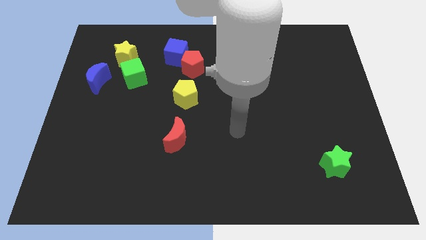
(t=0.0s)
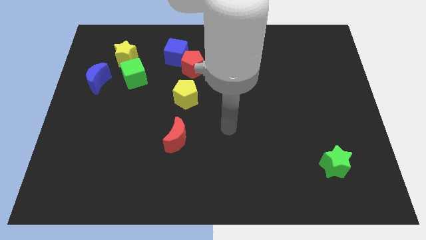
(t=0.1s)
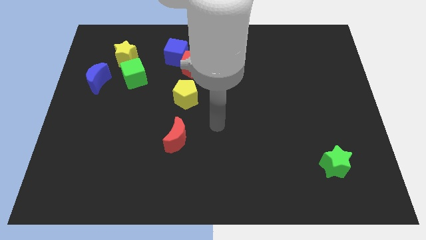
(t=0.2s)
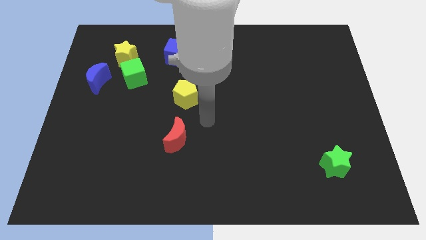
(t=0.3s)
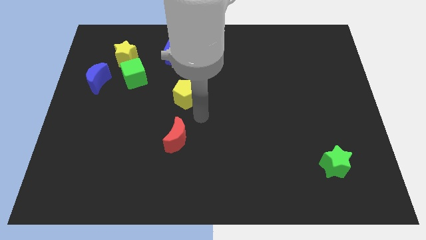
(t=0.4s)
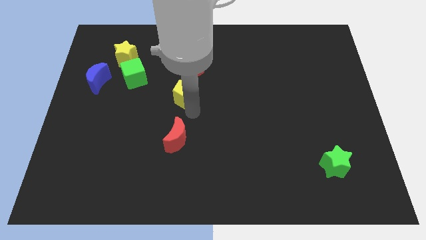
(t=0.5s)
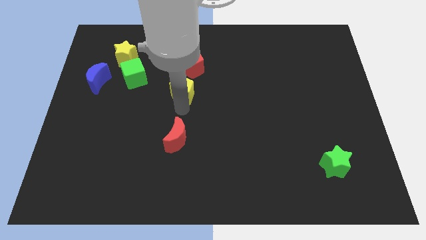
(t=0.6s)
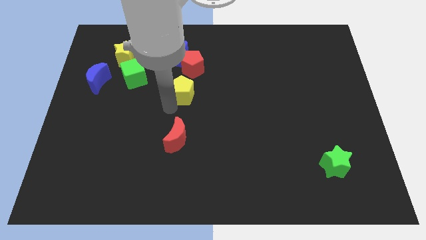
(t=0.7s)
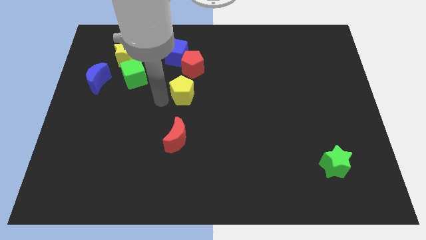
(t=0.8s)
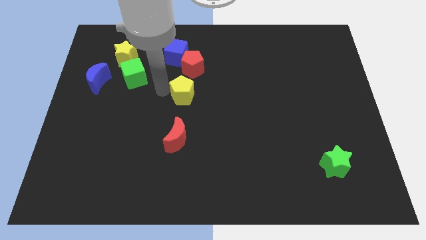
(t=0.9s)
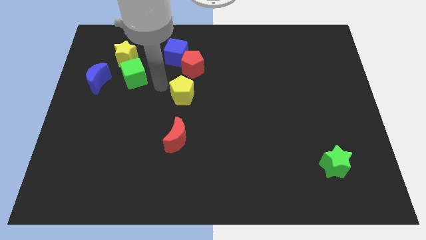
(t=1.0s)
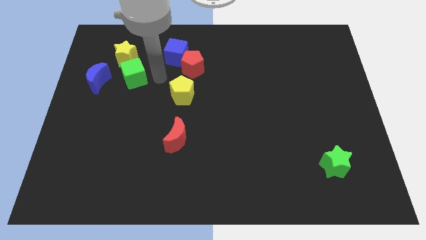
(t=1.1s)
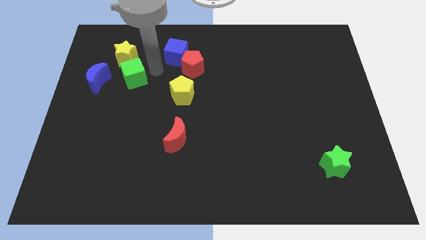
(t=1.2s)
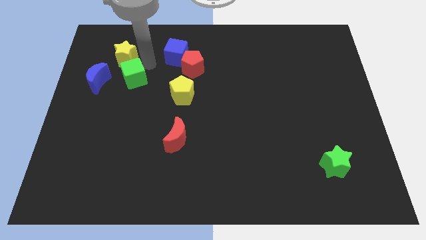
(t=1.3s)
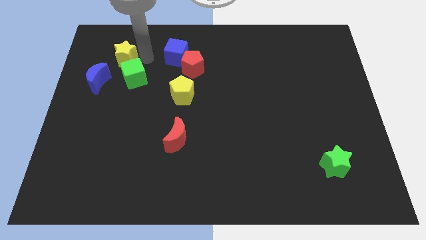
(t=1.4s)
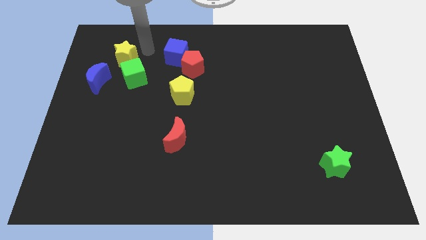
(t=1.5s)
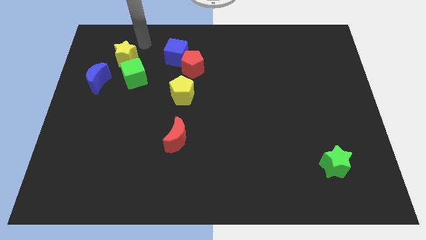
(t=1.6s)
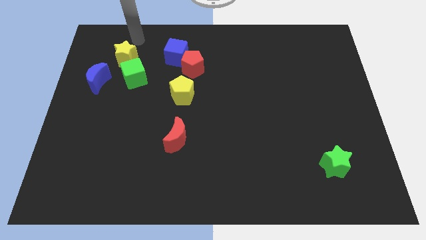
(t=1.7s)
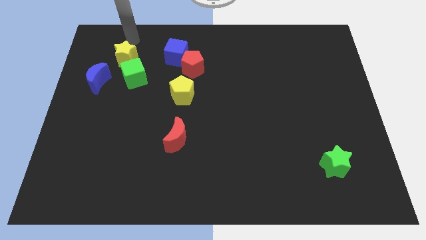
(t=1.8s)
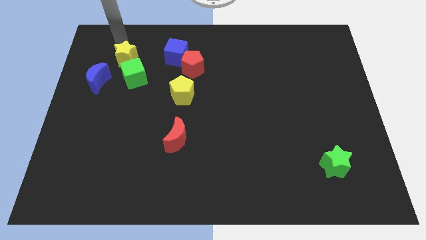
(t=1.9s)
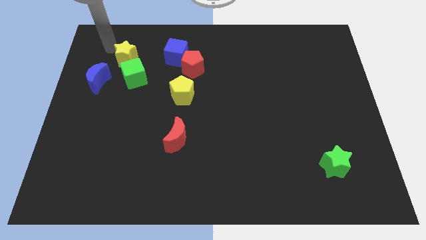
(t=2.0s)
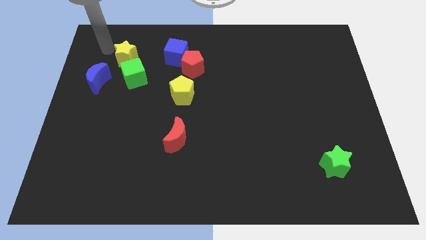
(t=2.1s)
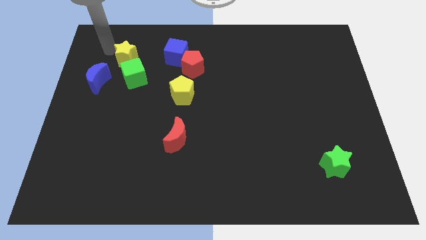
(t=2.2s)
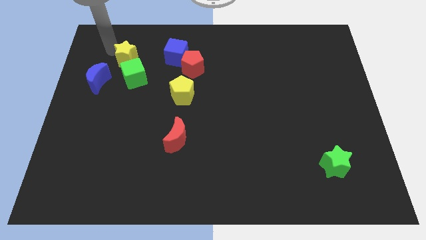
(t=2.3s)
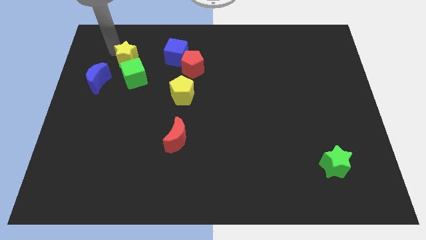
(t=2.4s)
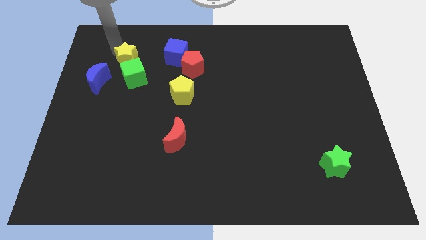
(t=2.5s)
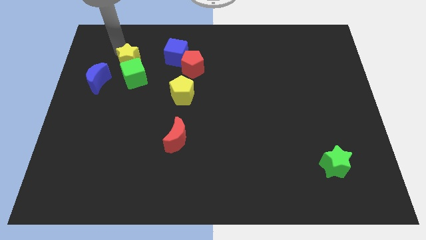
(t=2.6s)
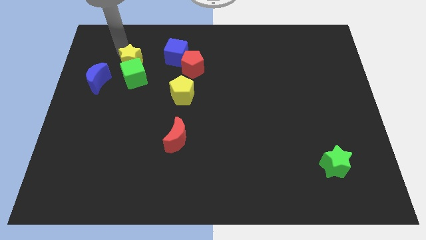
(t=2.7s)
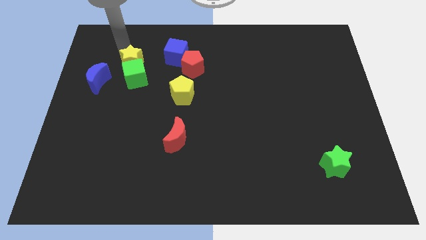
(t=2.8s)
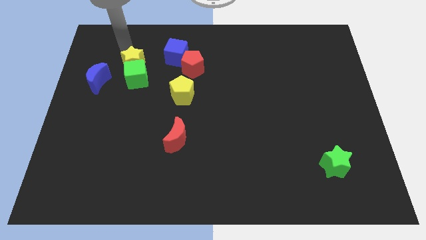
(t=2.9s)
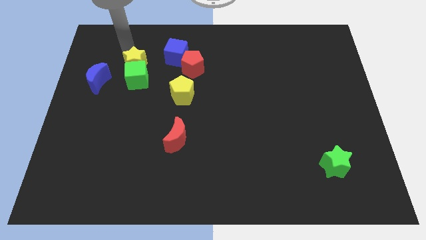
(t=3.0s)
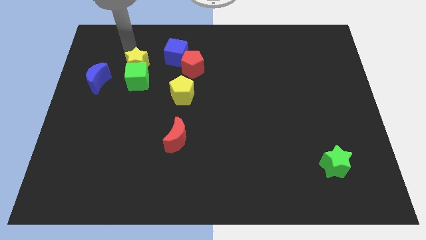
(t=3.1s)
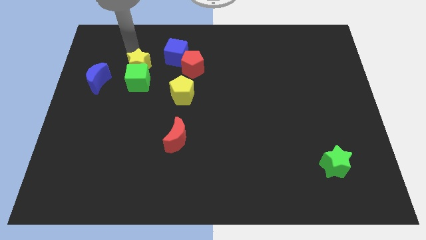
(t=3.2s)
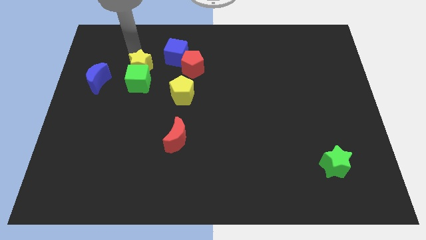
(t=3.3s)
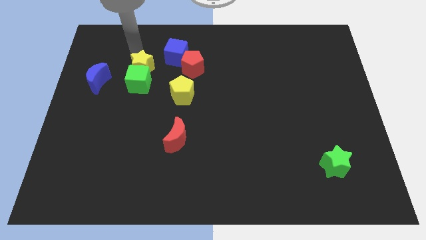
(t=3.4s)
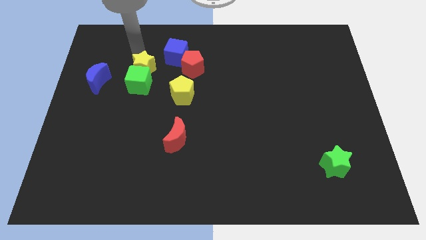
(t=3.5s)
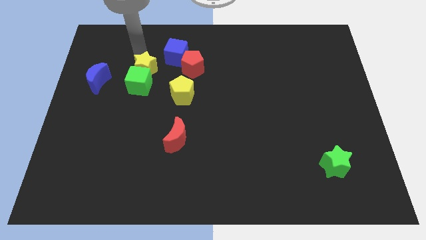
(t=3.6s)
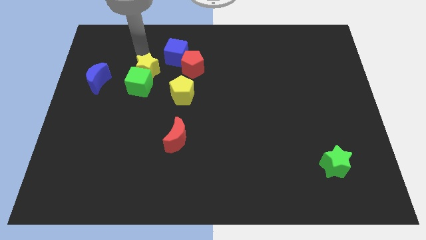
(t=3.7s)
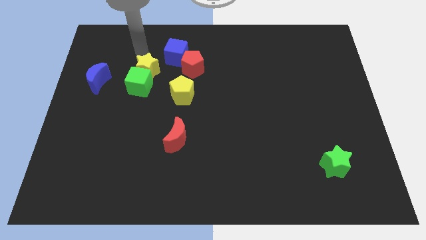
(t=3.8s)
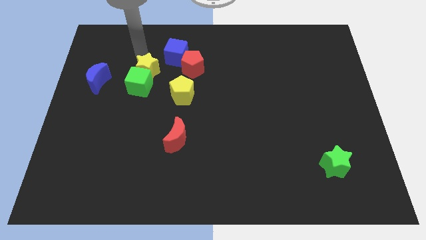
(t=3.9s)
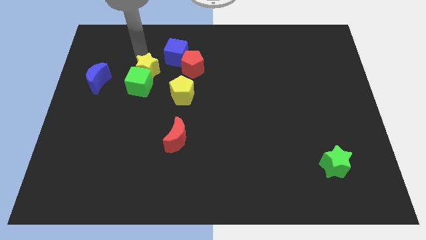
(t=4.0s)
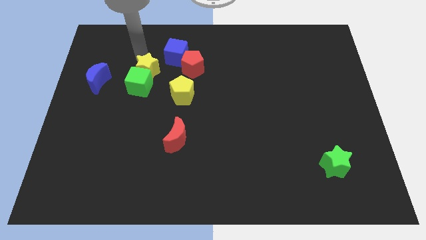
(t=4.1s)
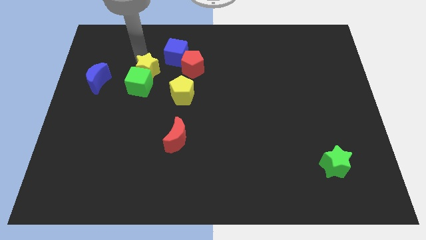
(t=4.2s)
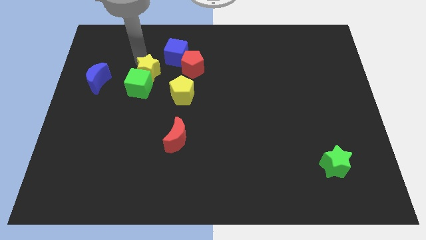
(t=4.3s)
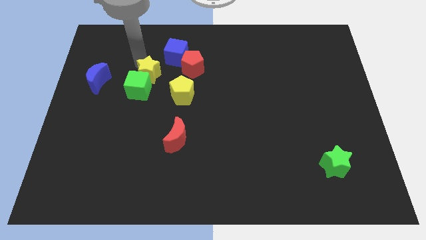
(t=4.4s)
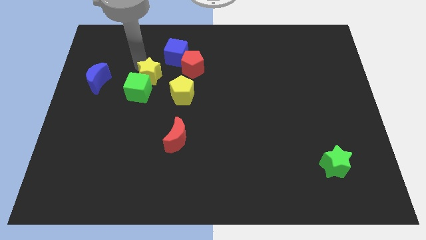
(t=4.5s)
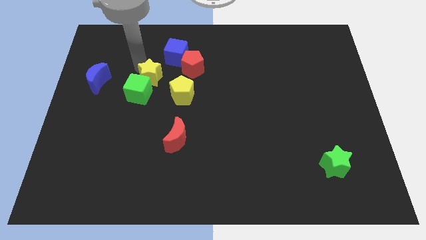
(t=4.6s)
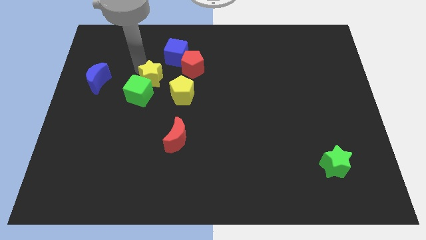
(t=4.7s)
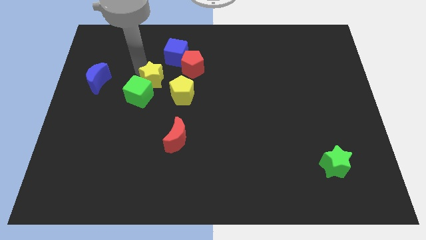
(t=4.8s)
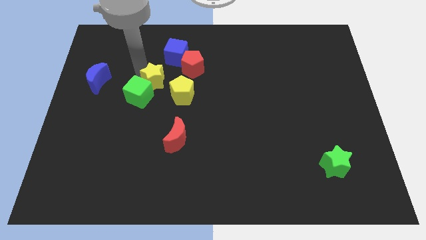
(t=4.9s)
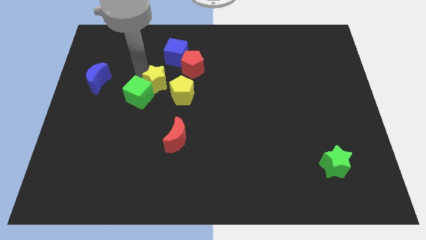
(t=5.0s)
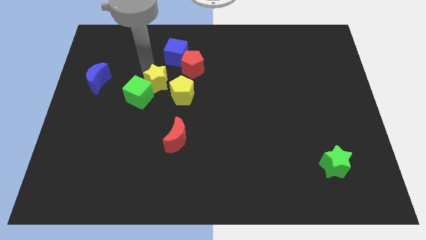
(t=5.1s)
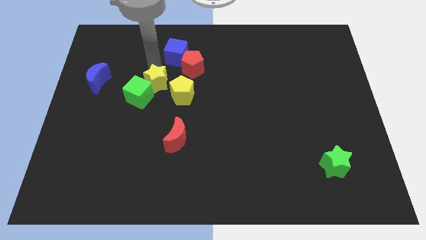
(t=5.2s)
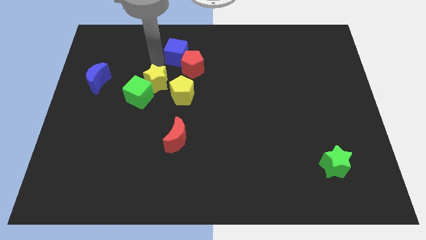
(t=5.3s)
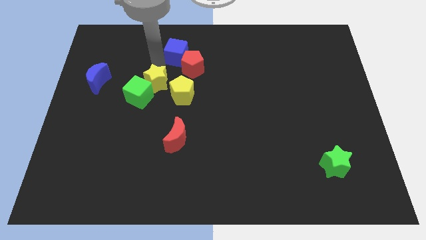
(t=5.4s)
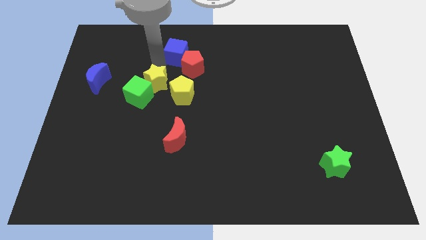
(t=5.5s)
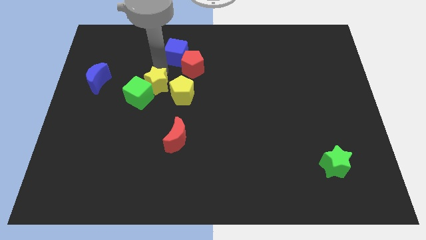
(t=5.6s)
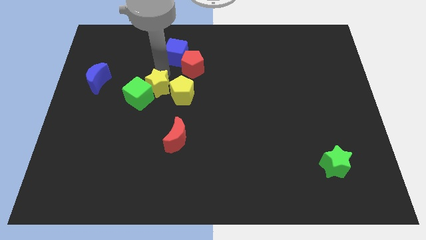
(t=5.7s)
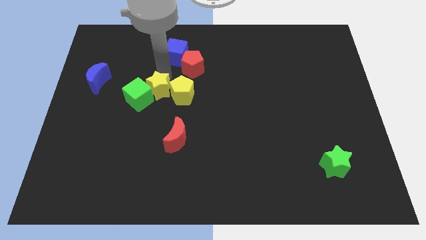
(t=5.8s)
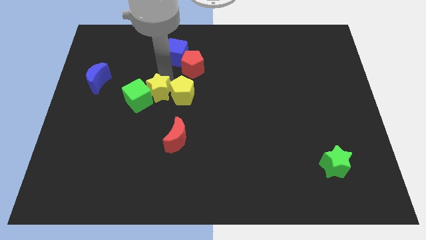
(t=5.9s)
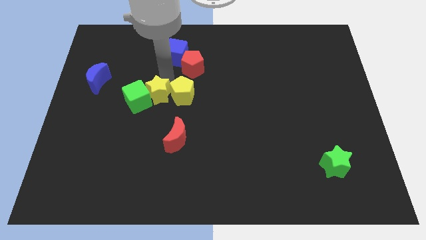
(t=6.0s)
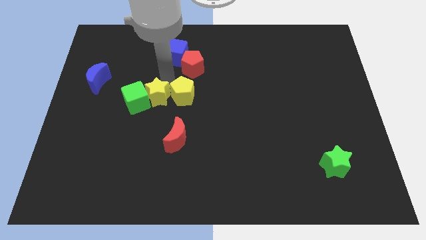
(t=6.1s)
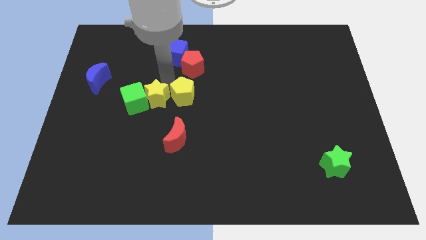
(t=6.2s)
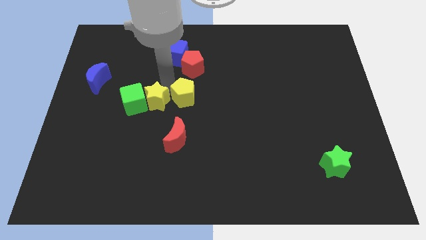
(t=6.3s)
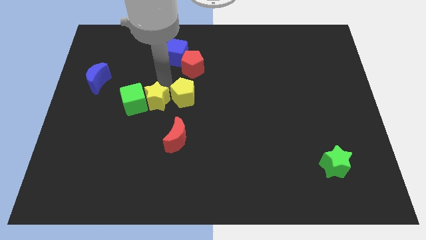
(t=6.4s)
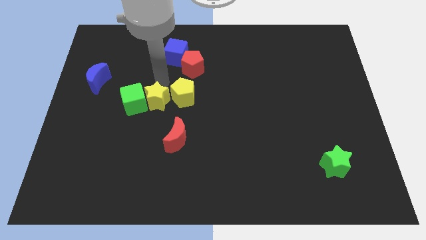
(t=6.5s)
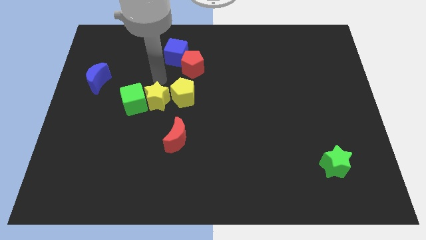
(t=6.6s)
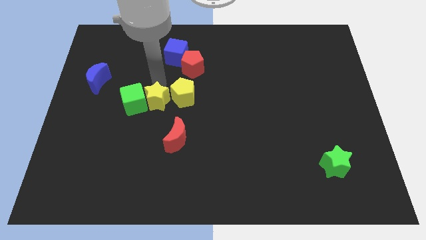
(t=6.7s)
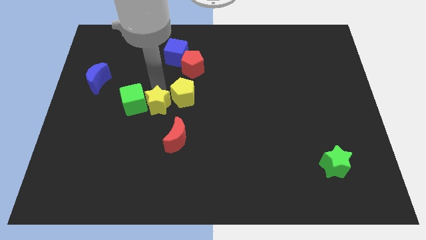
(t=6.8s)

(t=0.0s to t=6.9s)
put the yellow star diagonally up and to the left of the red moon

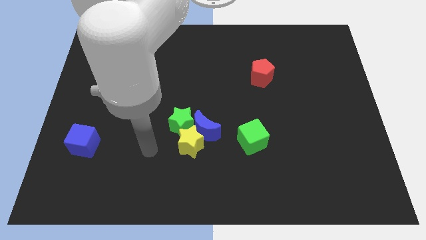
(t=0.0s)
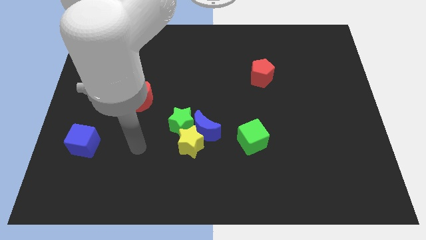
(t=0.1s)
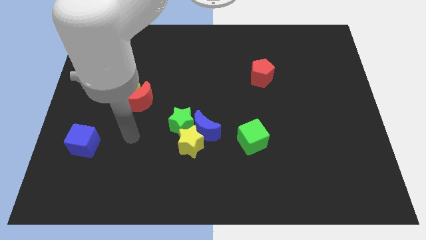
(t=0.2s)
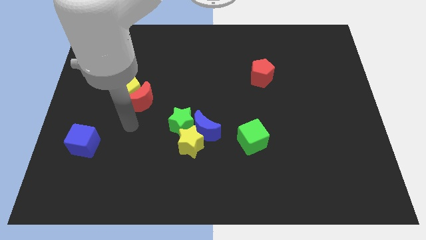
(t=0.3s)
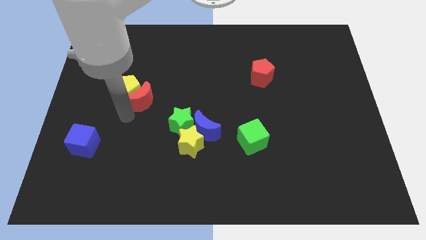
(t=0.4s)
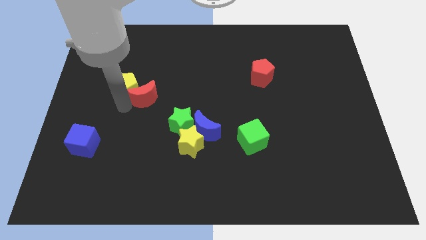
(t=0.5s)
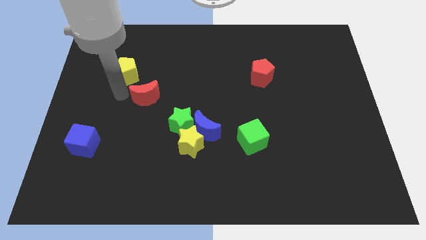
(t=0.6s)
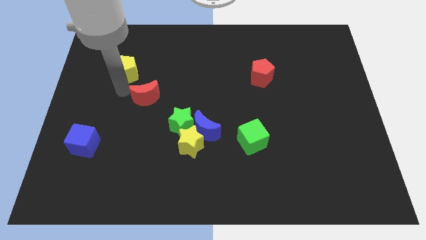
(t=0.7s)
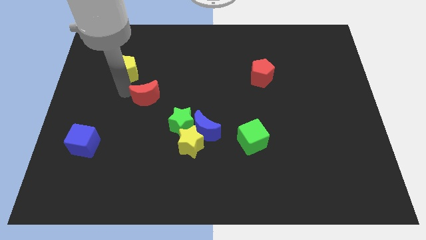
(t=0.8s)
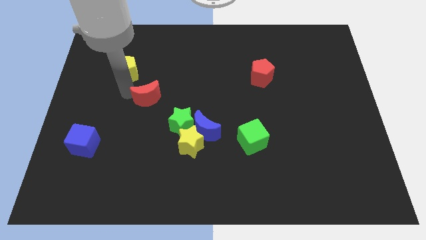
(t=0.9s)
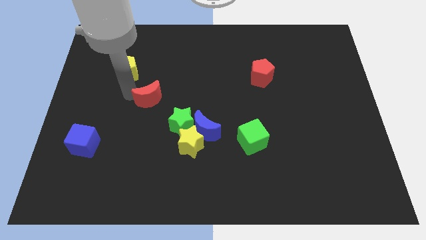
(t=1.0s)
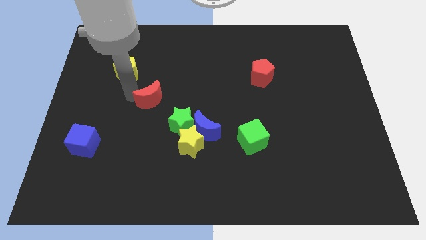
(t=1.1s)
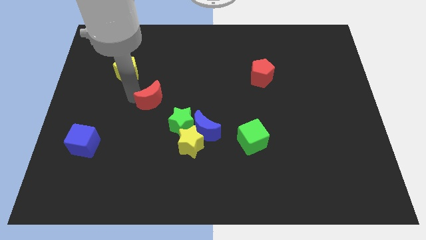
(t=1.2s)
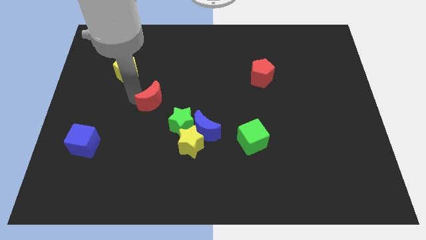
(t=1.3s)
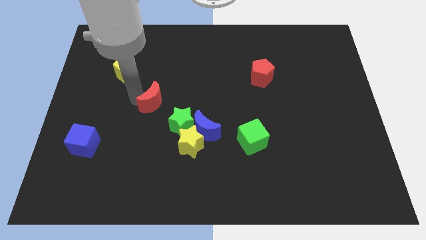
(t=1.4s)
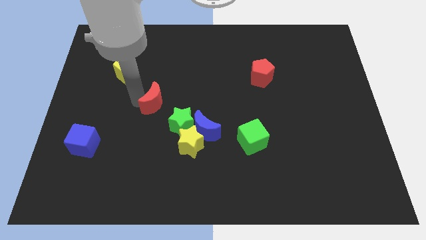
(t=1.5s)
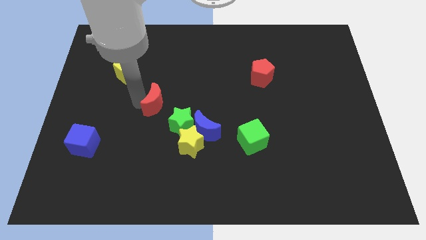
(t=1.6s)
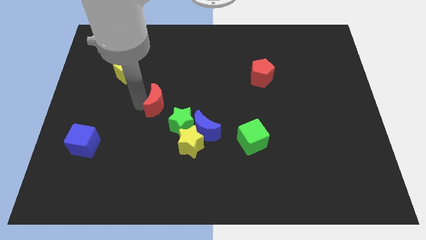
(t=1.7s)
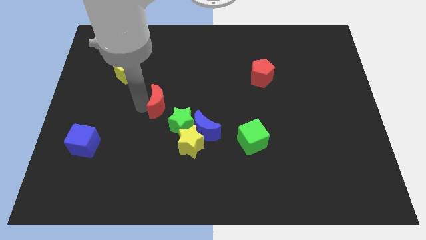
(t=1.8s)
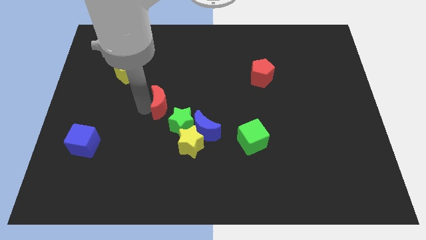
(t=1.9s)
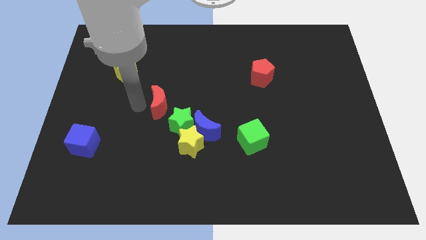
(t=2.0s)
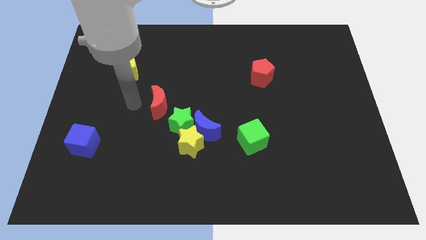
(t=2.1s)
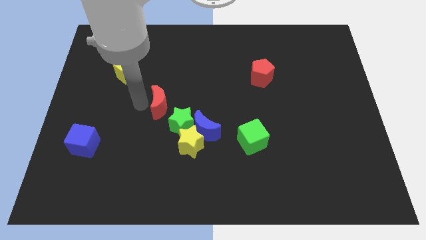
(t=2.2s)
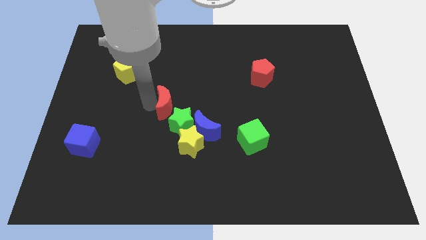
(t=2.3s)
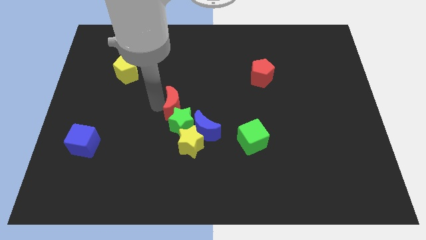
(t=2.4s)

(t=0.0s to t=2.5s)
push the red moon to the top side of the yellow star
